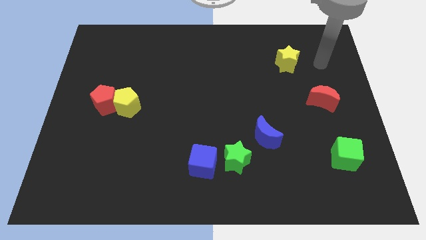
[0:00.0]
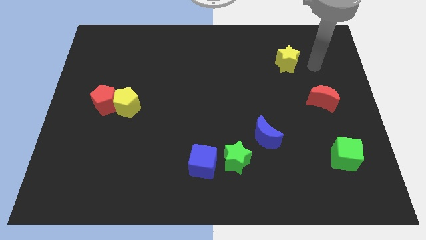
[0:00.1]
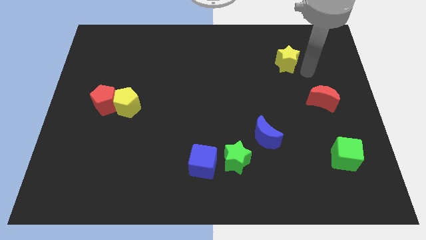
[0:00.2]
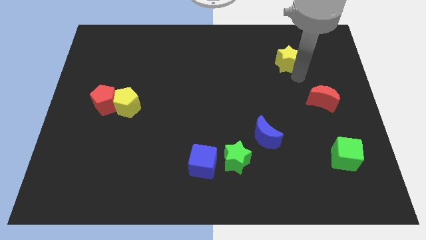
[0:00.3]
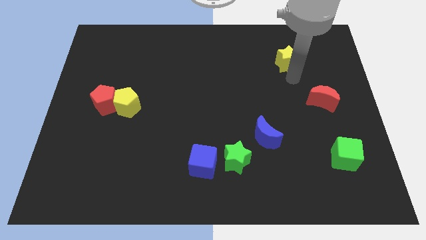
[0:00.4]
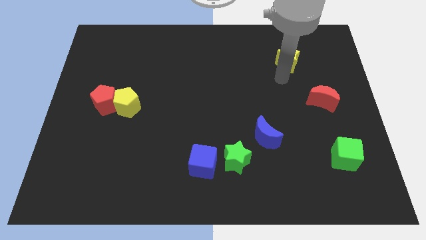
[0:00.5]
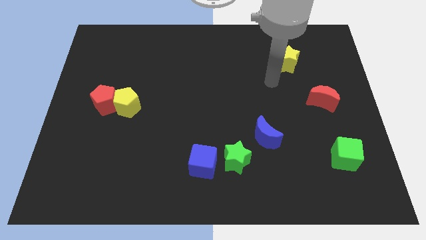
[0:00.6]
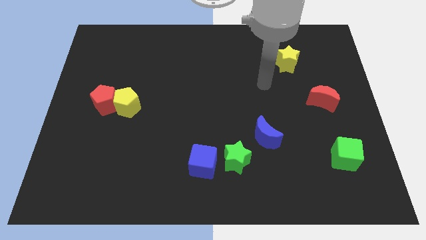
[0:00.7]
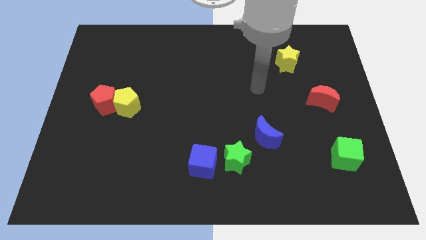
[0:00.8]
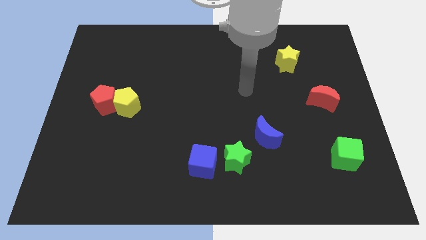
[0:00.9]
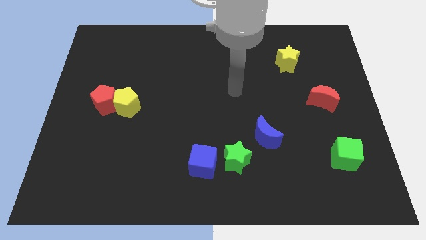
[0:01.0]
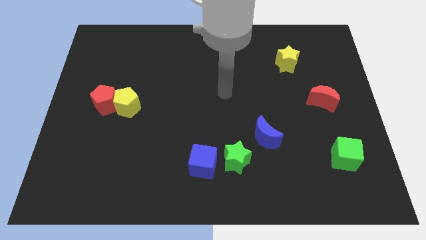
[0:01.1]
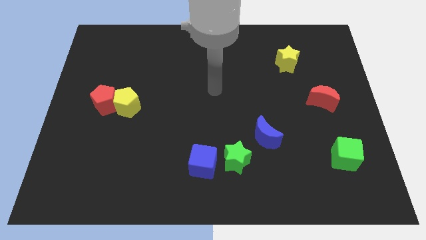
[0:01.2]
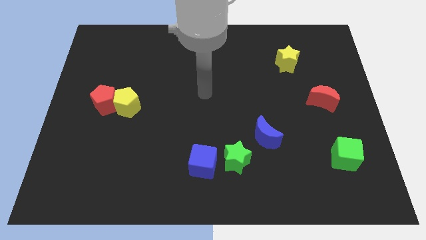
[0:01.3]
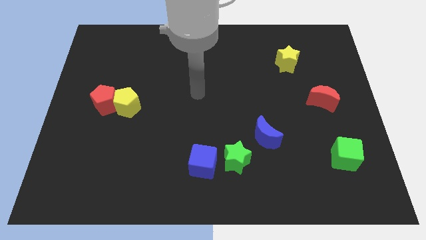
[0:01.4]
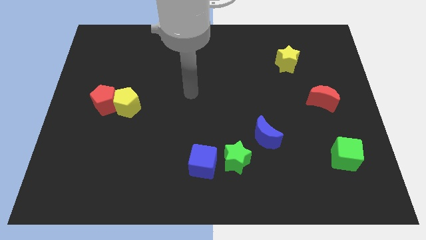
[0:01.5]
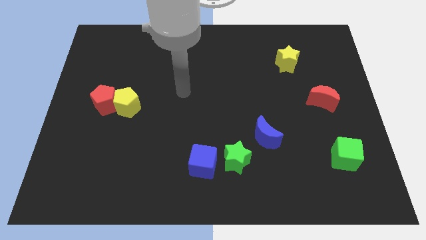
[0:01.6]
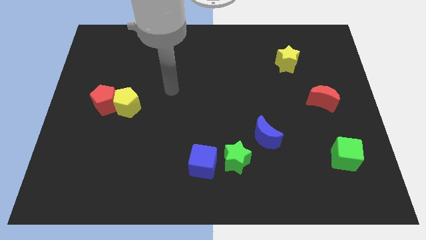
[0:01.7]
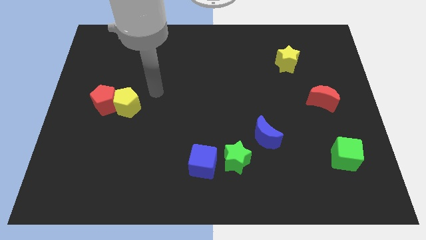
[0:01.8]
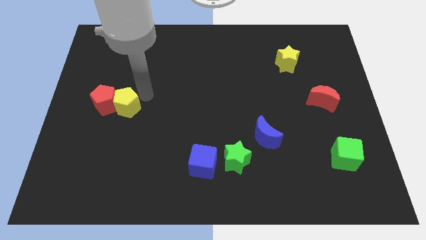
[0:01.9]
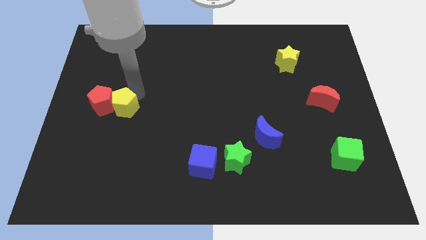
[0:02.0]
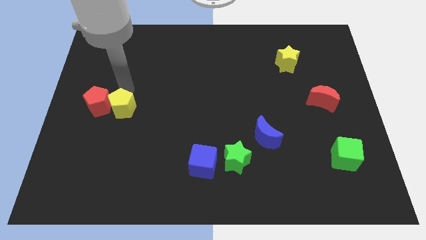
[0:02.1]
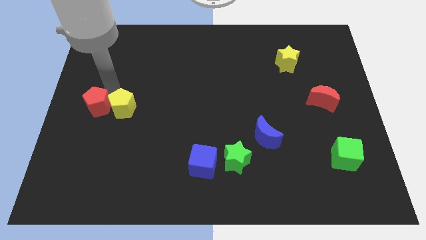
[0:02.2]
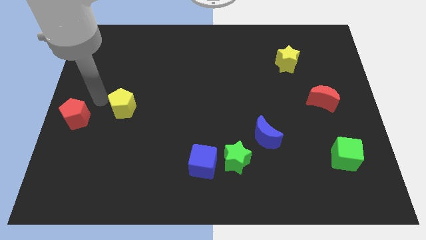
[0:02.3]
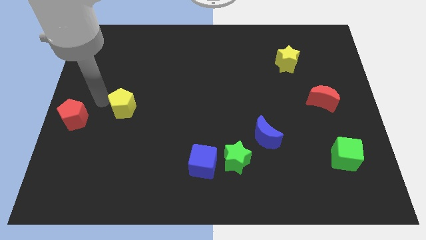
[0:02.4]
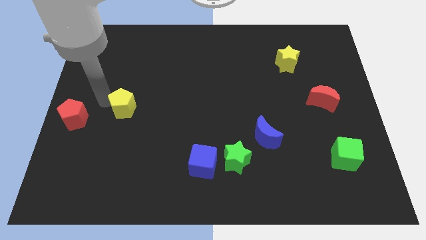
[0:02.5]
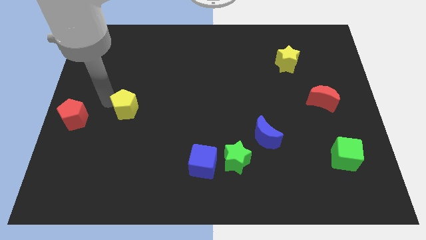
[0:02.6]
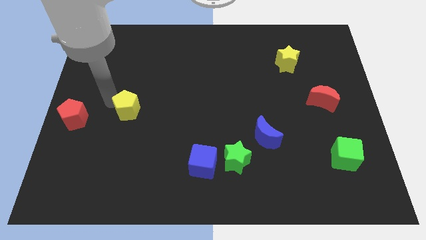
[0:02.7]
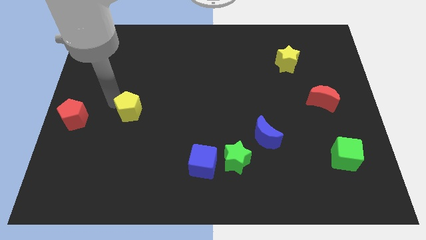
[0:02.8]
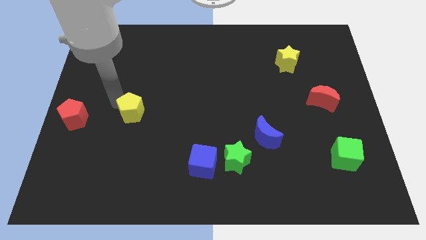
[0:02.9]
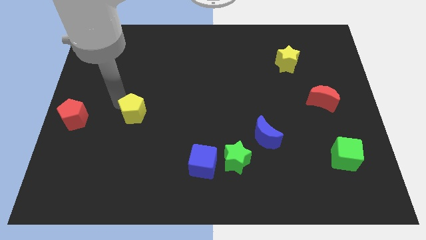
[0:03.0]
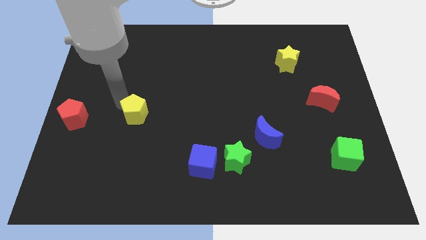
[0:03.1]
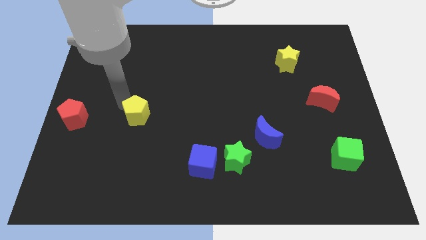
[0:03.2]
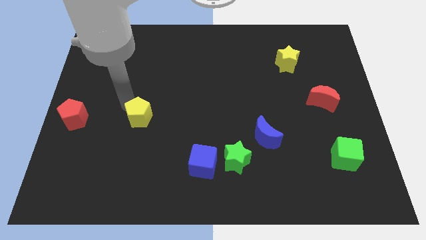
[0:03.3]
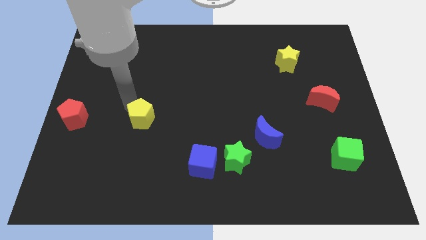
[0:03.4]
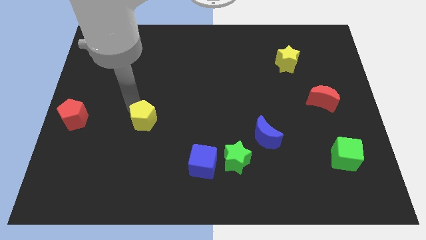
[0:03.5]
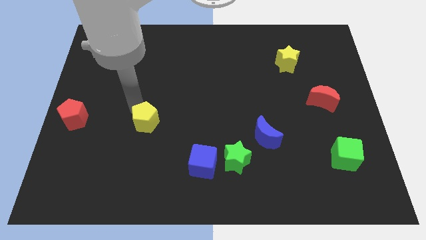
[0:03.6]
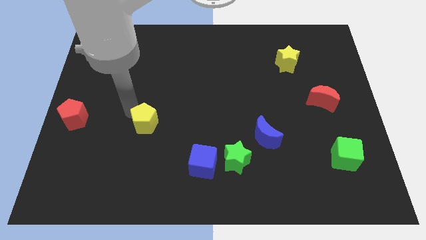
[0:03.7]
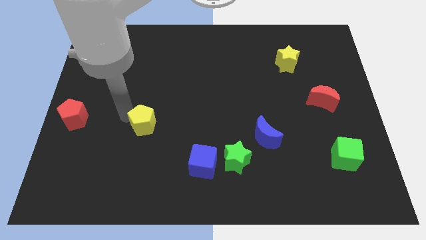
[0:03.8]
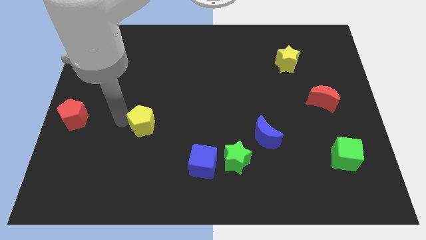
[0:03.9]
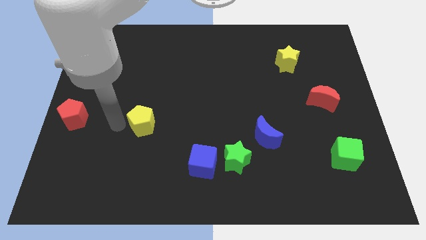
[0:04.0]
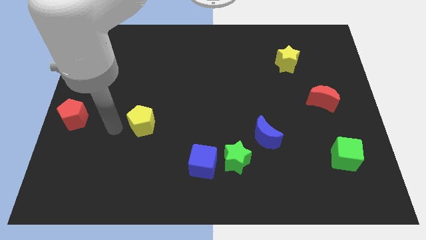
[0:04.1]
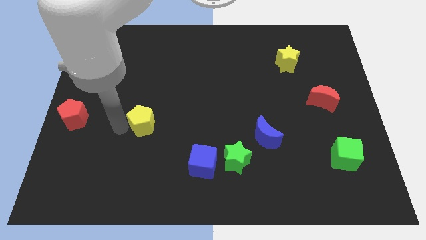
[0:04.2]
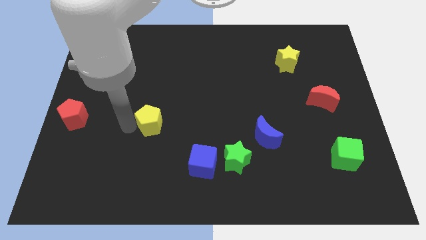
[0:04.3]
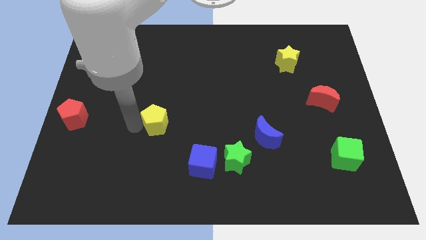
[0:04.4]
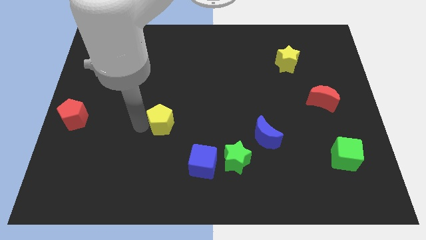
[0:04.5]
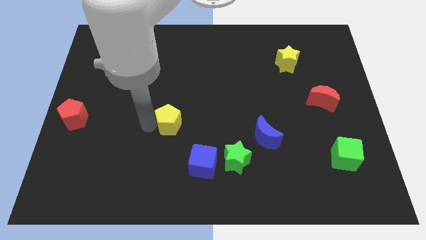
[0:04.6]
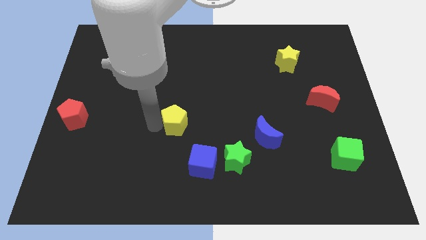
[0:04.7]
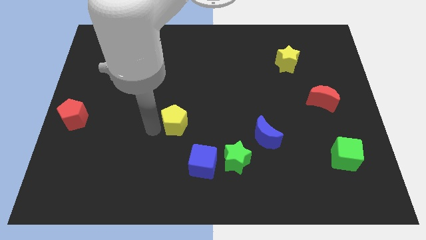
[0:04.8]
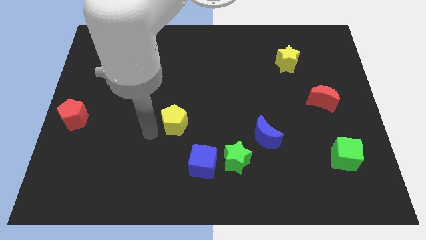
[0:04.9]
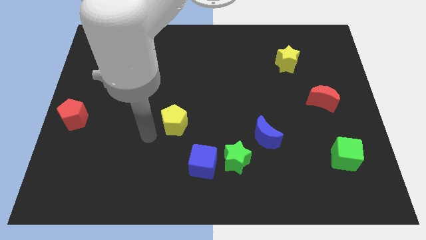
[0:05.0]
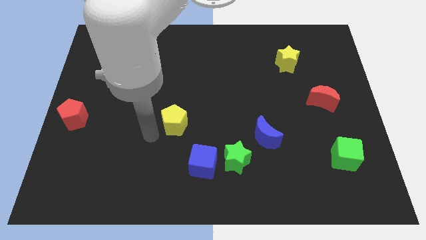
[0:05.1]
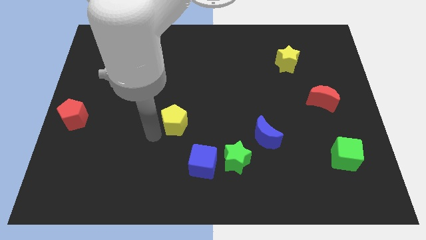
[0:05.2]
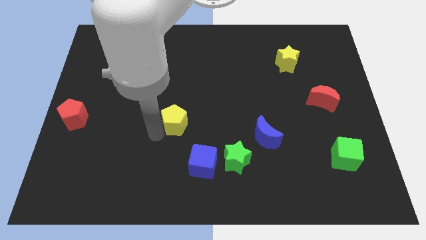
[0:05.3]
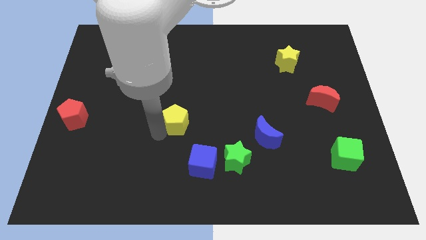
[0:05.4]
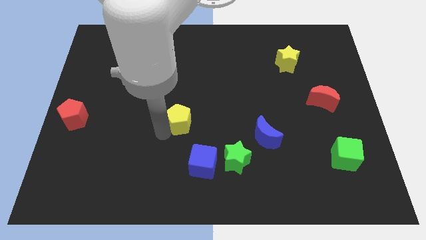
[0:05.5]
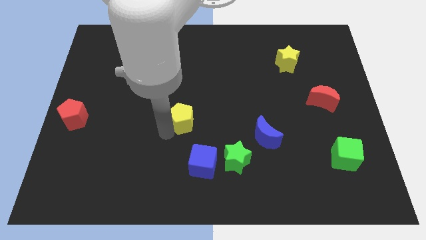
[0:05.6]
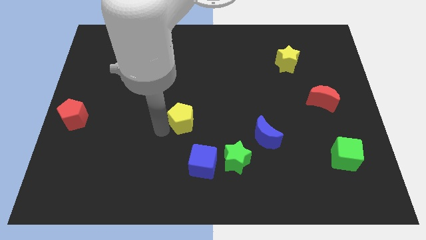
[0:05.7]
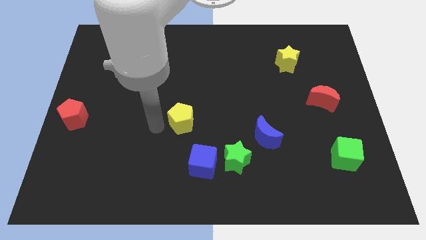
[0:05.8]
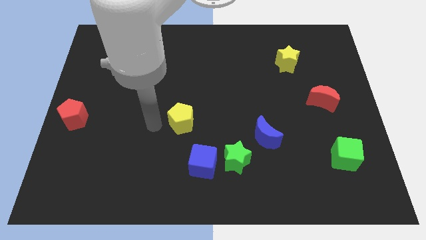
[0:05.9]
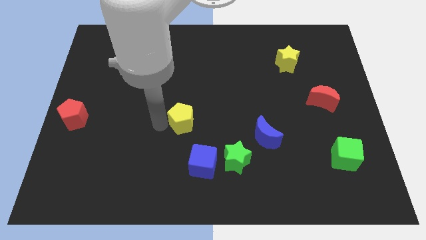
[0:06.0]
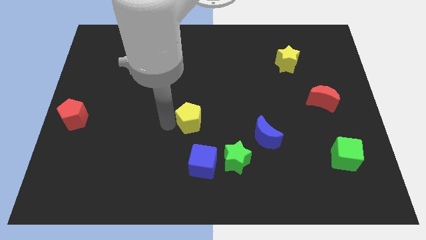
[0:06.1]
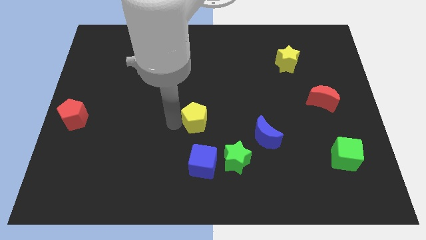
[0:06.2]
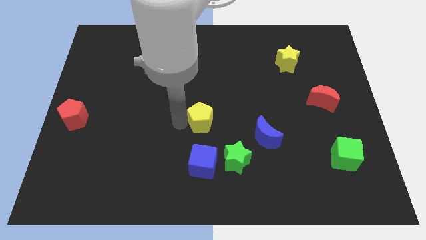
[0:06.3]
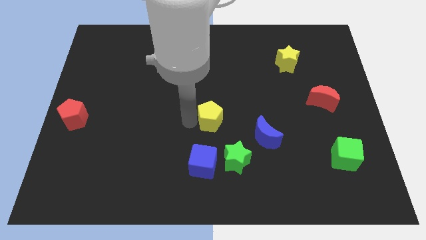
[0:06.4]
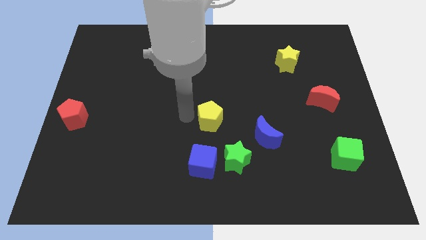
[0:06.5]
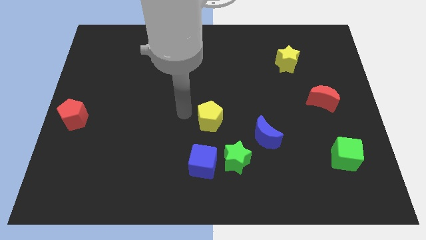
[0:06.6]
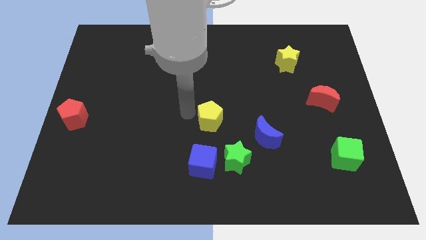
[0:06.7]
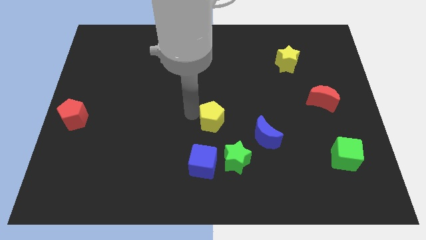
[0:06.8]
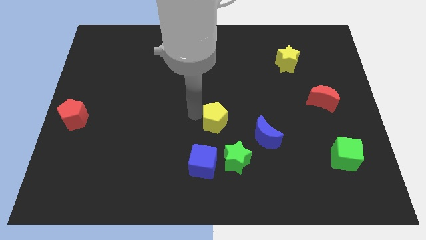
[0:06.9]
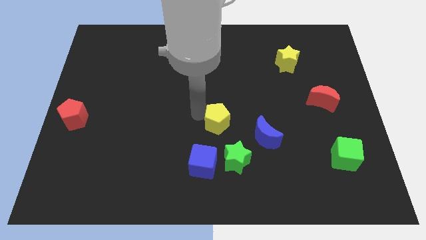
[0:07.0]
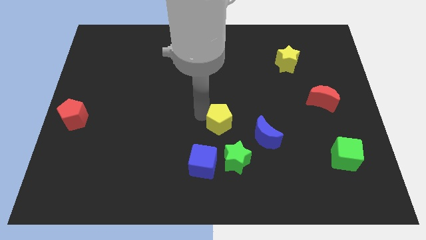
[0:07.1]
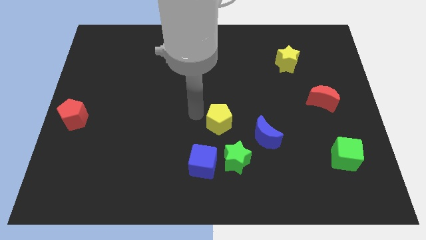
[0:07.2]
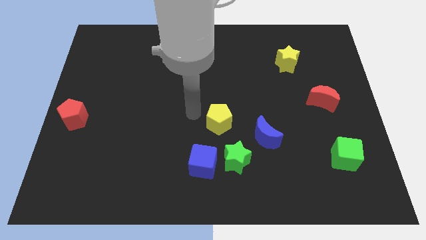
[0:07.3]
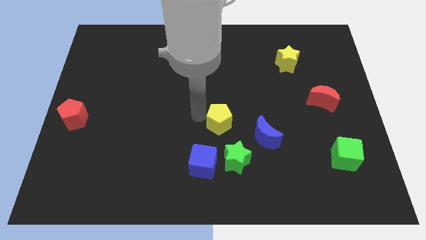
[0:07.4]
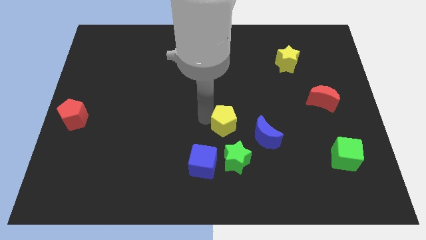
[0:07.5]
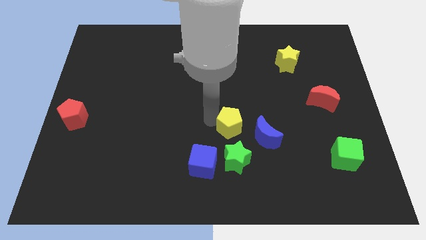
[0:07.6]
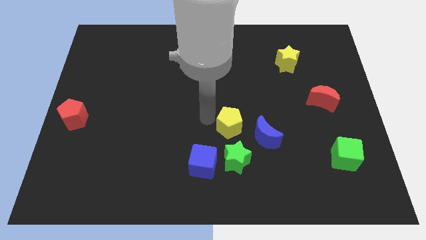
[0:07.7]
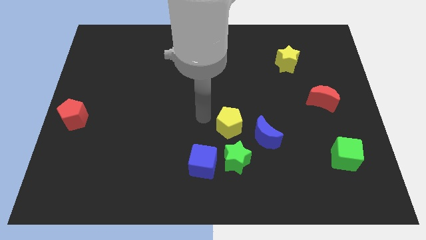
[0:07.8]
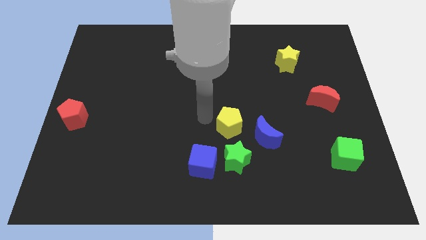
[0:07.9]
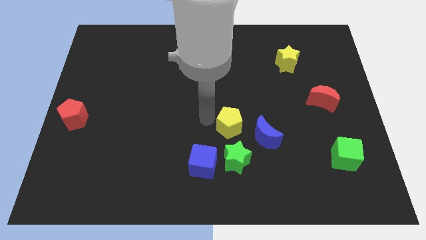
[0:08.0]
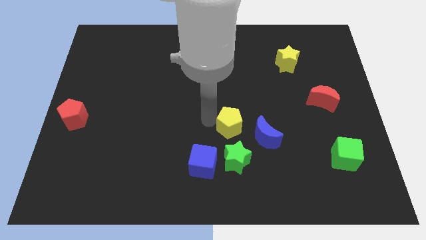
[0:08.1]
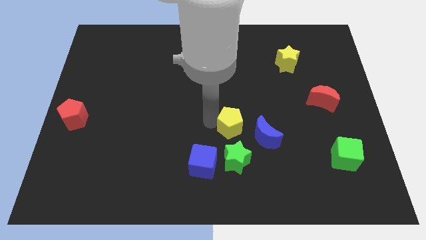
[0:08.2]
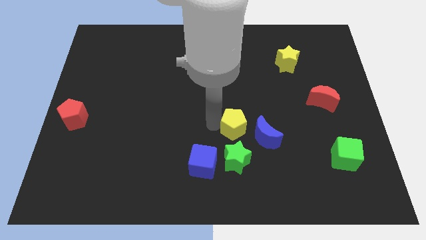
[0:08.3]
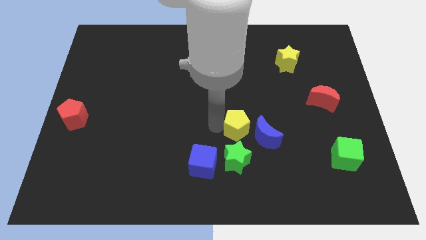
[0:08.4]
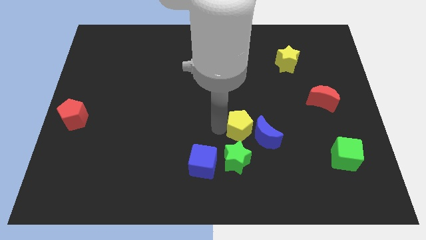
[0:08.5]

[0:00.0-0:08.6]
slide the yellow pentagon towards the blue moon
